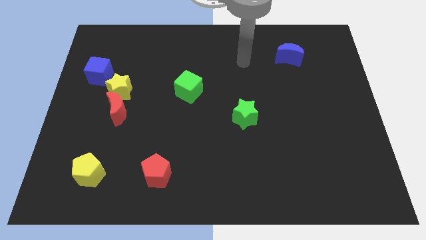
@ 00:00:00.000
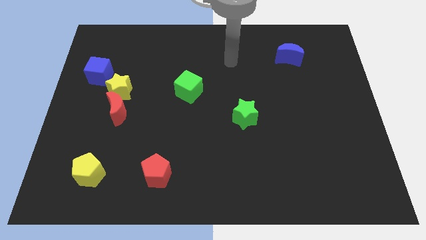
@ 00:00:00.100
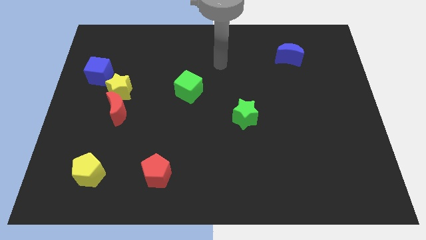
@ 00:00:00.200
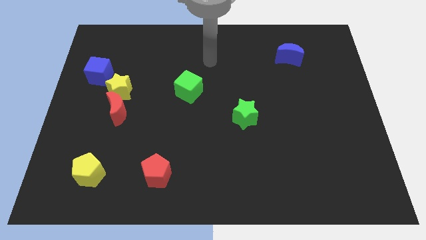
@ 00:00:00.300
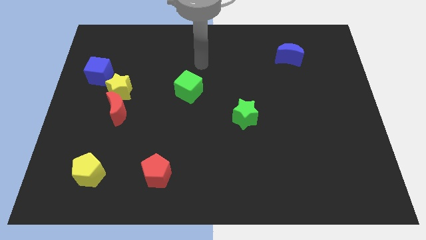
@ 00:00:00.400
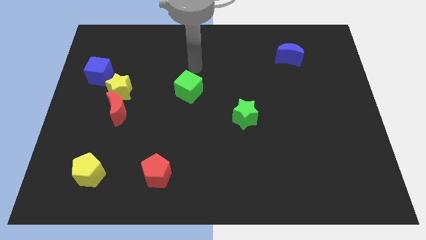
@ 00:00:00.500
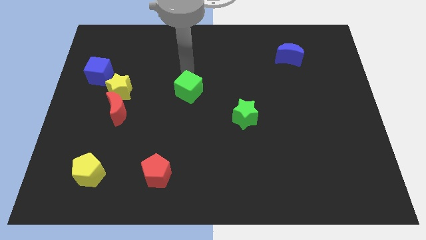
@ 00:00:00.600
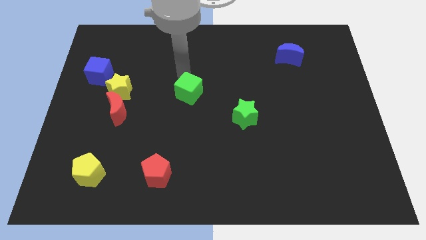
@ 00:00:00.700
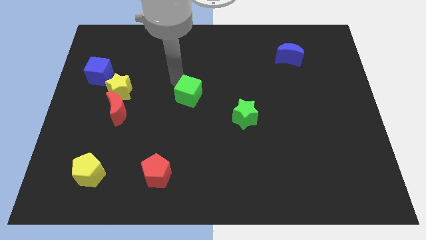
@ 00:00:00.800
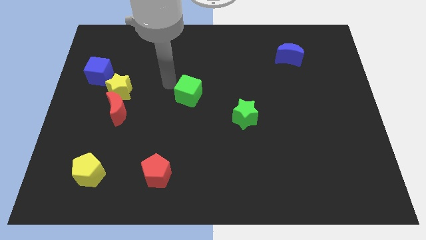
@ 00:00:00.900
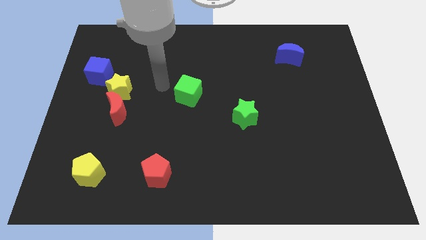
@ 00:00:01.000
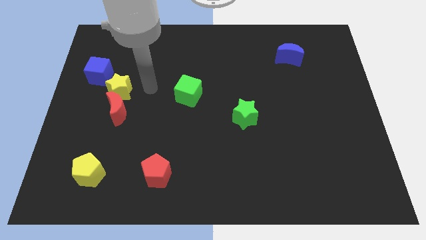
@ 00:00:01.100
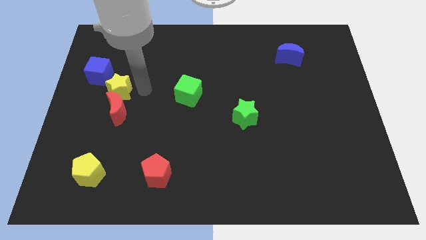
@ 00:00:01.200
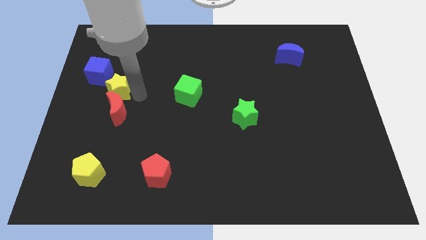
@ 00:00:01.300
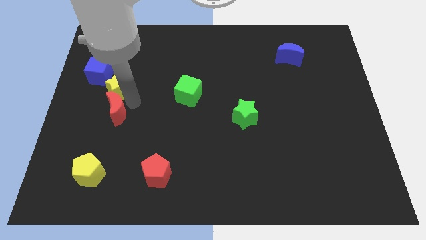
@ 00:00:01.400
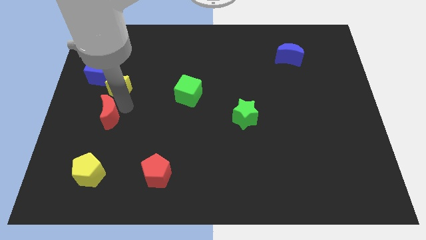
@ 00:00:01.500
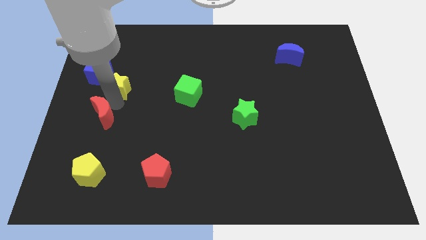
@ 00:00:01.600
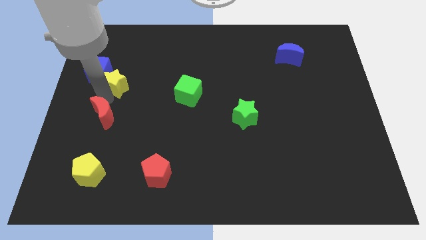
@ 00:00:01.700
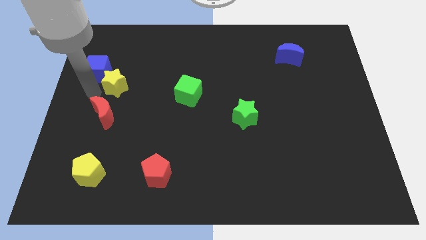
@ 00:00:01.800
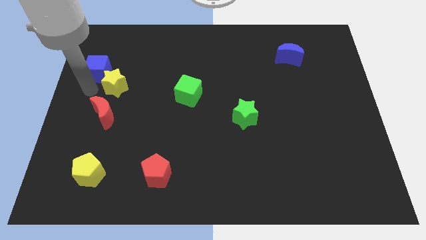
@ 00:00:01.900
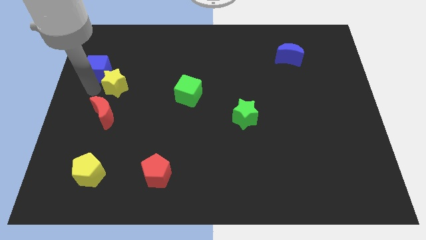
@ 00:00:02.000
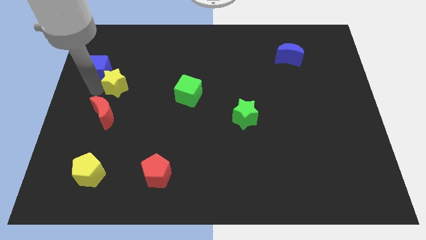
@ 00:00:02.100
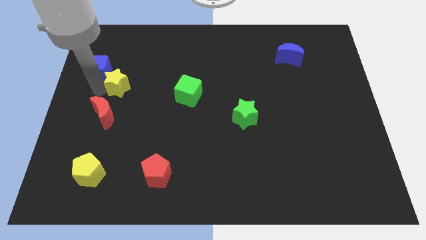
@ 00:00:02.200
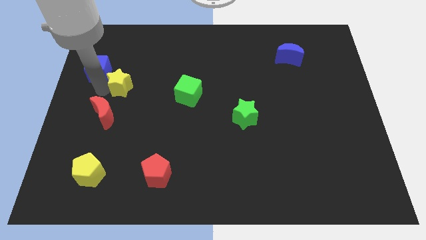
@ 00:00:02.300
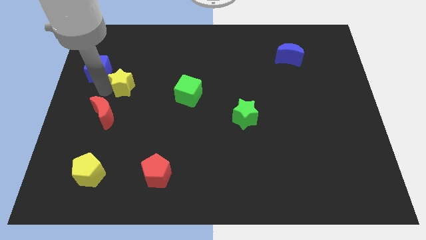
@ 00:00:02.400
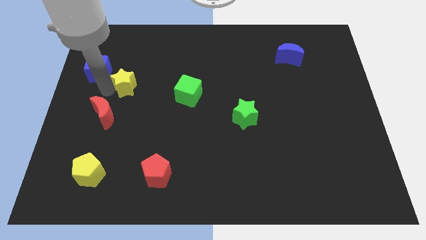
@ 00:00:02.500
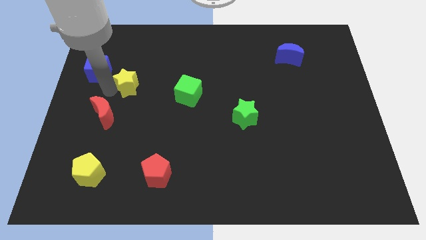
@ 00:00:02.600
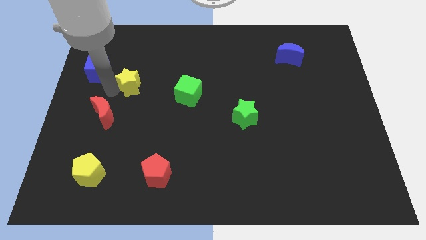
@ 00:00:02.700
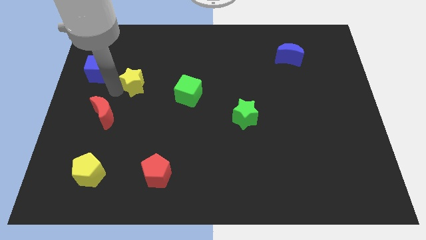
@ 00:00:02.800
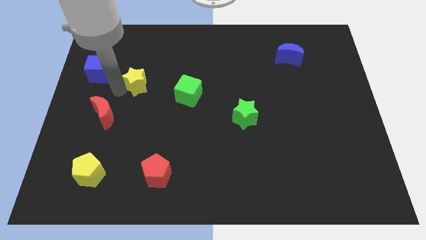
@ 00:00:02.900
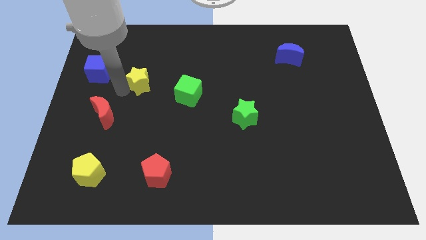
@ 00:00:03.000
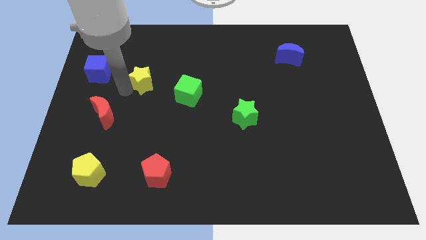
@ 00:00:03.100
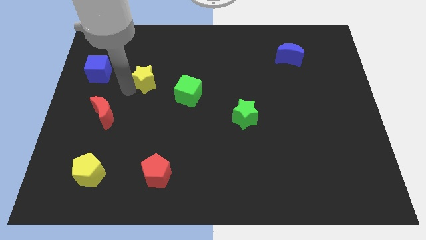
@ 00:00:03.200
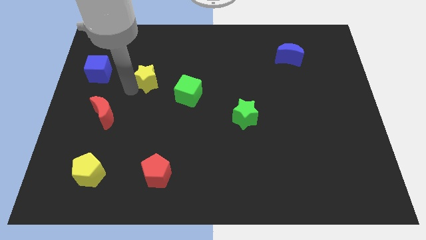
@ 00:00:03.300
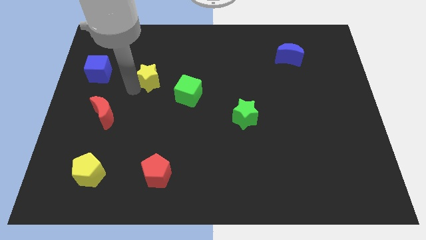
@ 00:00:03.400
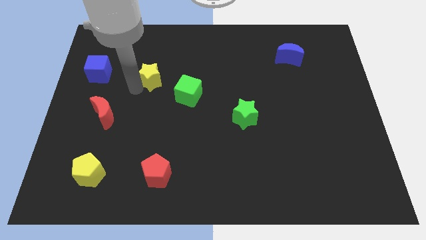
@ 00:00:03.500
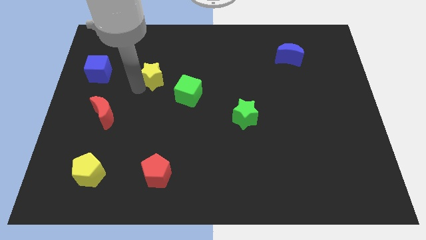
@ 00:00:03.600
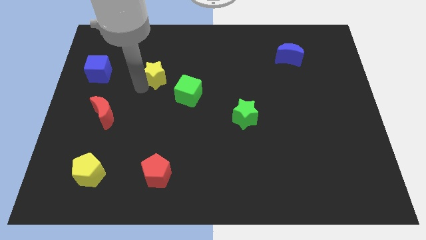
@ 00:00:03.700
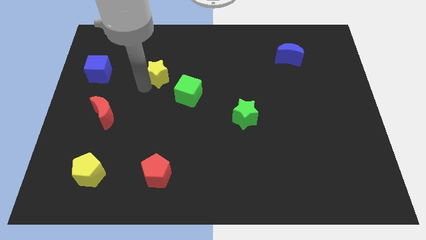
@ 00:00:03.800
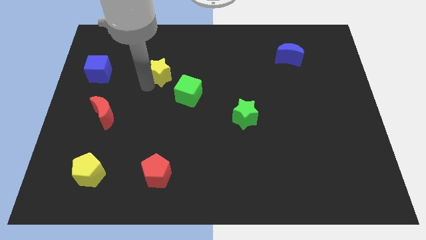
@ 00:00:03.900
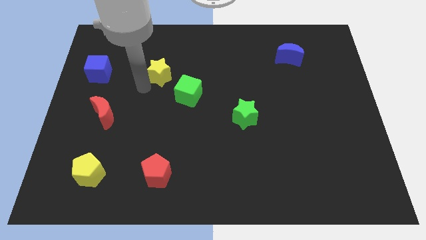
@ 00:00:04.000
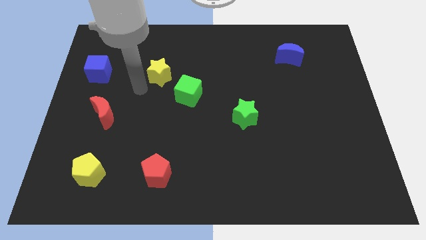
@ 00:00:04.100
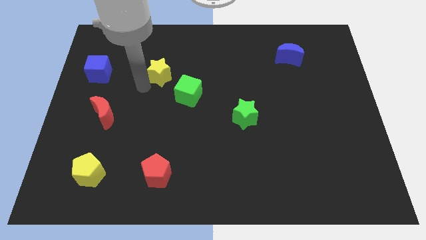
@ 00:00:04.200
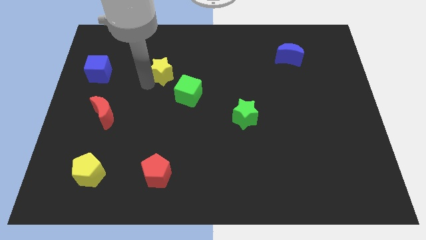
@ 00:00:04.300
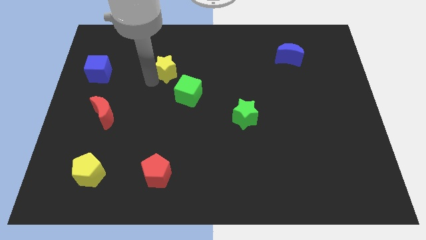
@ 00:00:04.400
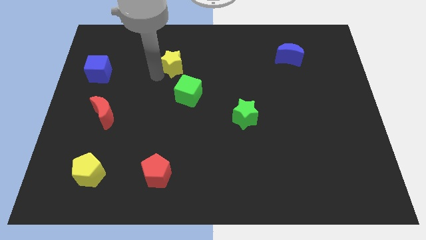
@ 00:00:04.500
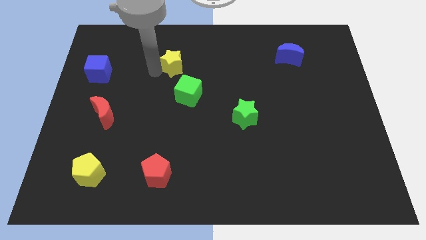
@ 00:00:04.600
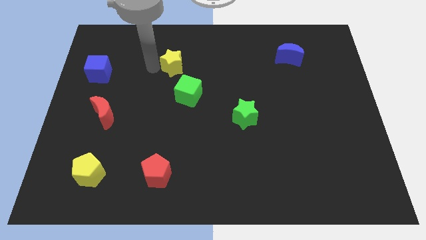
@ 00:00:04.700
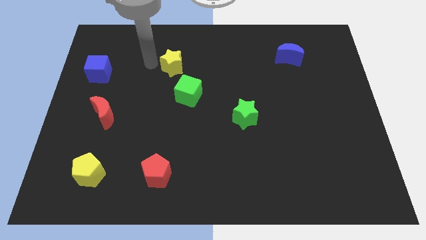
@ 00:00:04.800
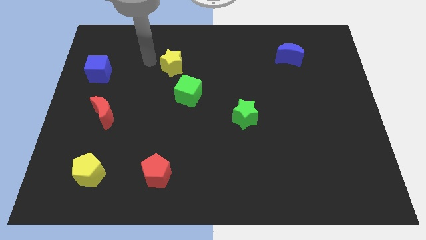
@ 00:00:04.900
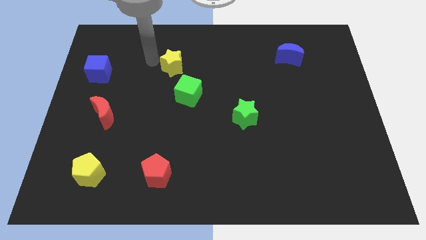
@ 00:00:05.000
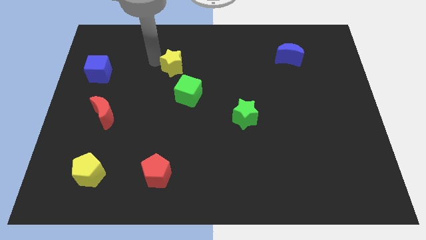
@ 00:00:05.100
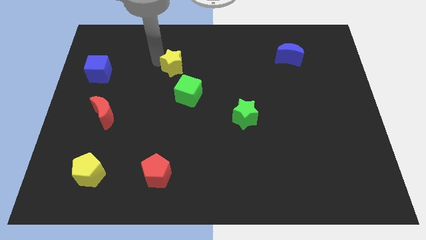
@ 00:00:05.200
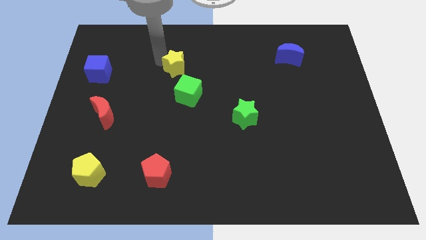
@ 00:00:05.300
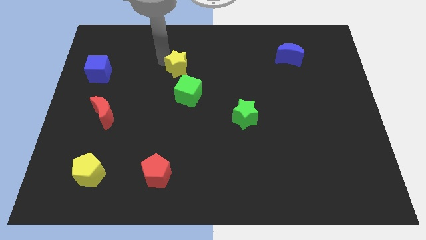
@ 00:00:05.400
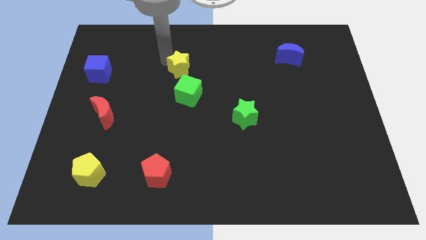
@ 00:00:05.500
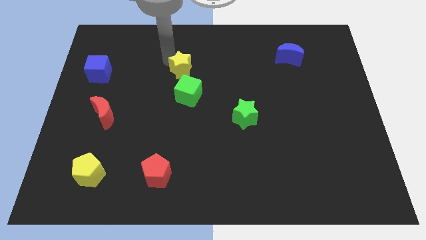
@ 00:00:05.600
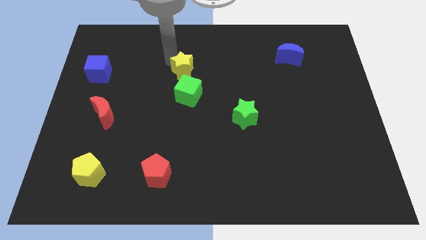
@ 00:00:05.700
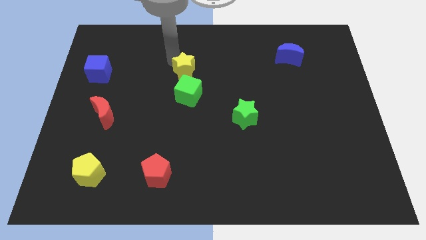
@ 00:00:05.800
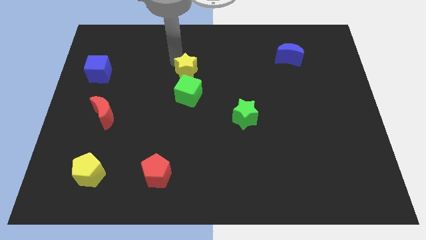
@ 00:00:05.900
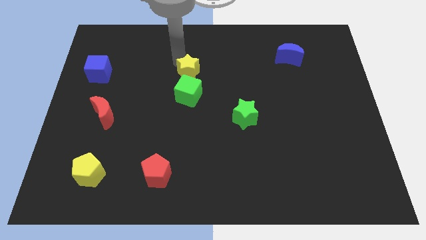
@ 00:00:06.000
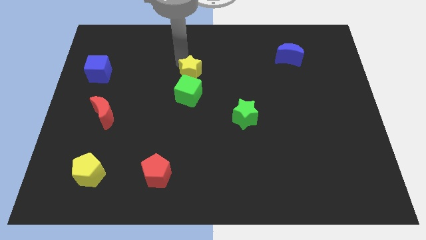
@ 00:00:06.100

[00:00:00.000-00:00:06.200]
push the yellow star diagonally up and to the right of the green cube
